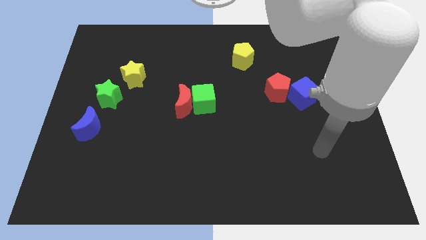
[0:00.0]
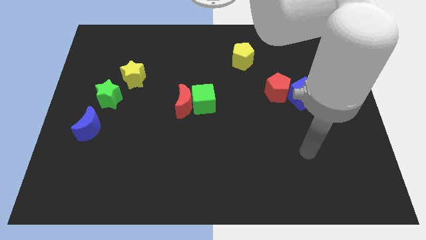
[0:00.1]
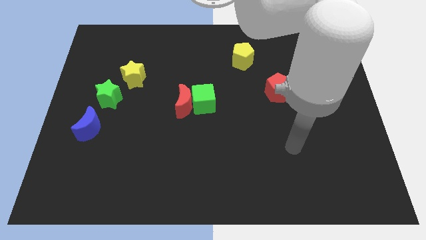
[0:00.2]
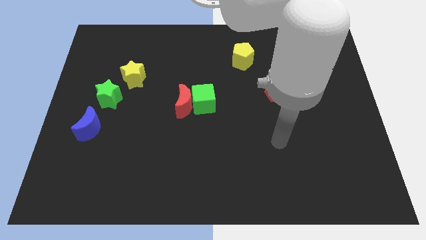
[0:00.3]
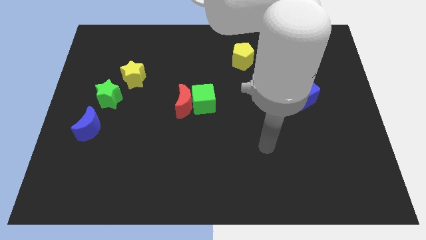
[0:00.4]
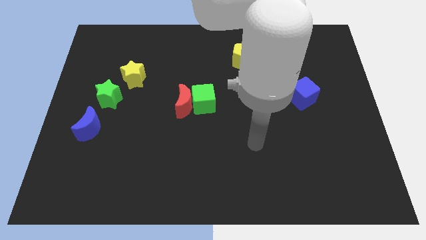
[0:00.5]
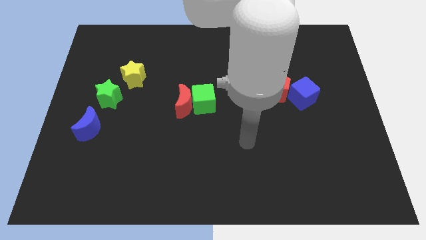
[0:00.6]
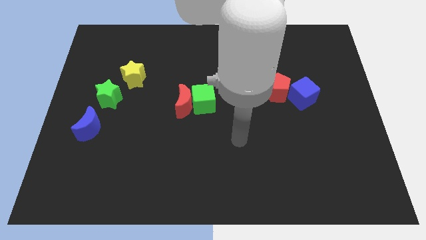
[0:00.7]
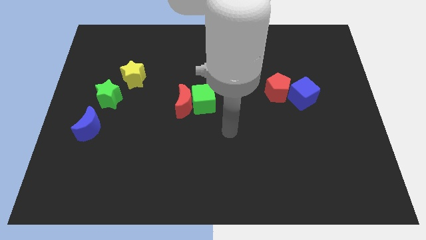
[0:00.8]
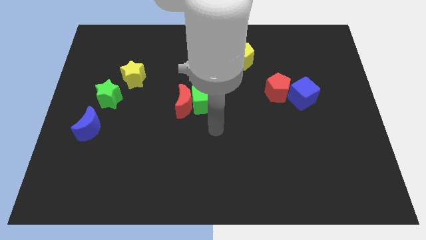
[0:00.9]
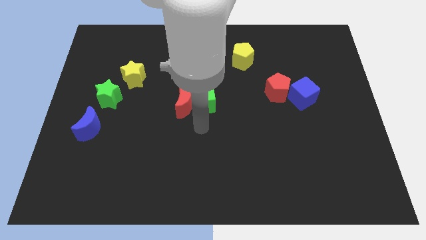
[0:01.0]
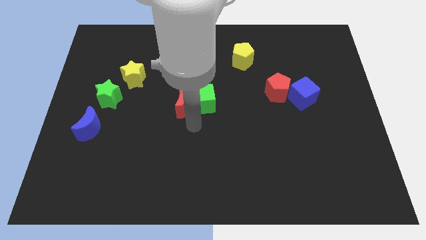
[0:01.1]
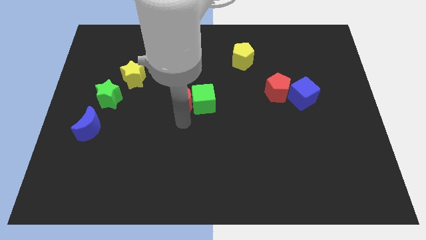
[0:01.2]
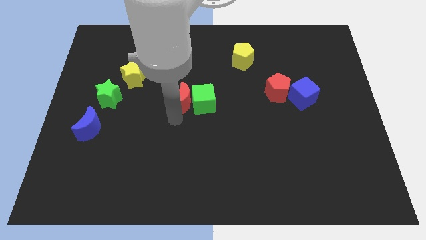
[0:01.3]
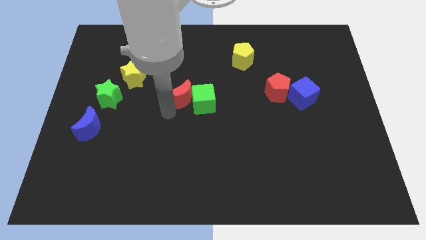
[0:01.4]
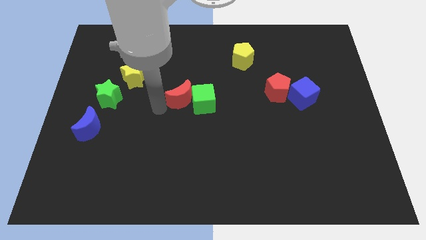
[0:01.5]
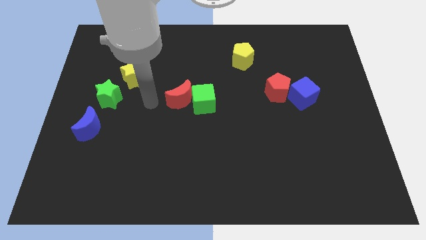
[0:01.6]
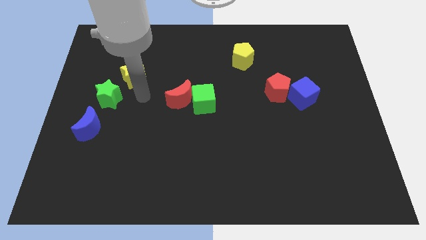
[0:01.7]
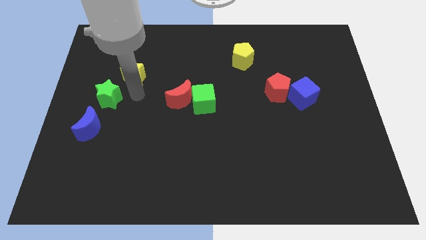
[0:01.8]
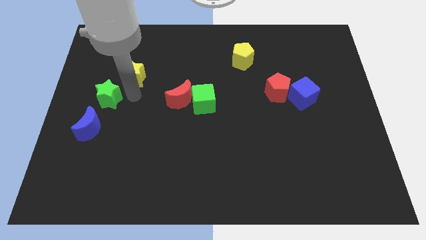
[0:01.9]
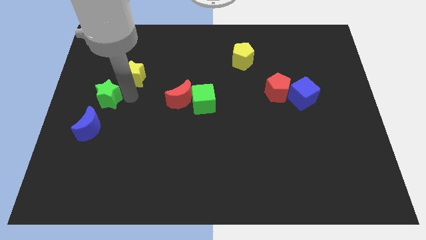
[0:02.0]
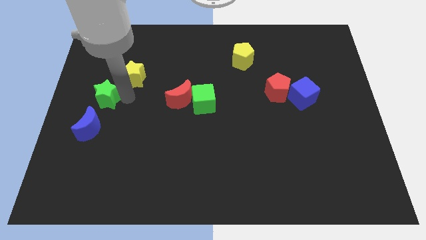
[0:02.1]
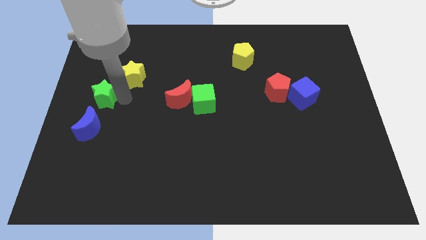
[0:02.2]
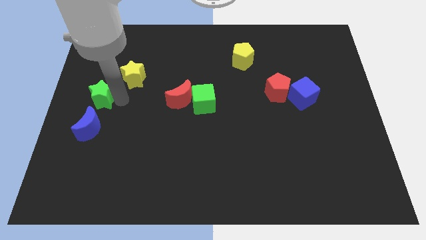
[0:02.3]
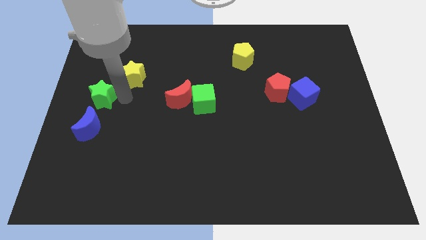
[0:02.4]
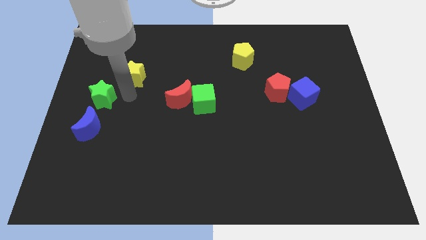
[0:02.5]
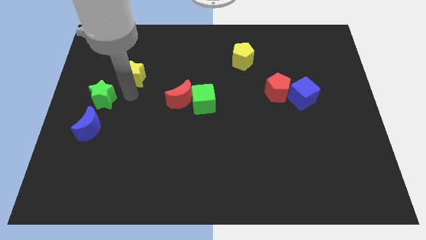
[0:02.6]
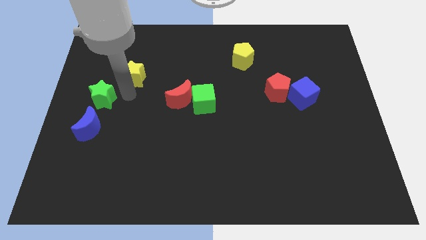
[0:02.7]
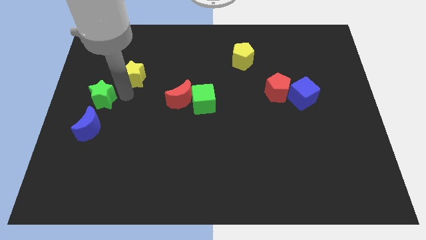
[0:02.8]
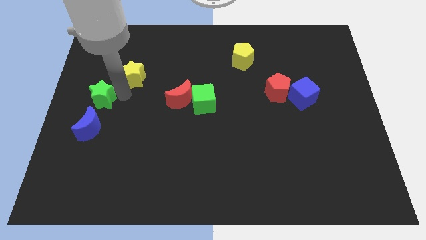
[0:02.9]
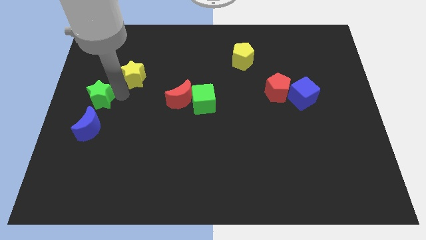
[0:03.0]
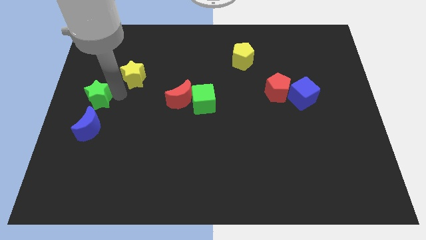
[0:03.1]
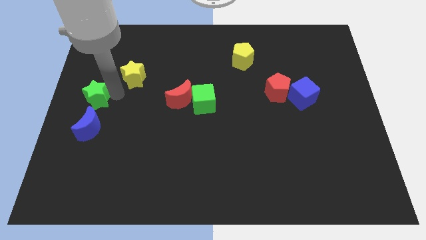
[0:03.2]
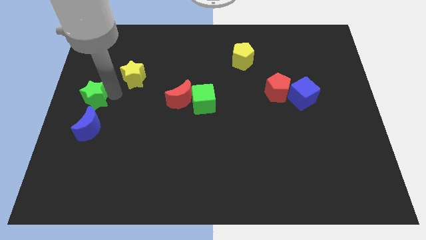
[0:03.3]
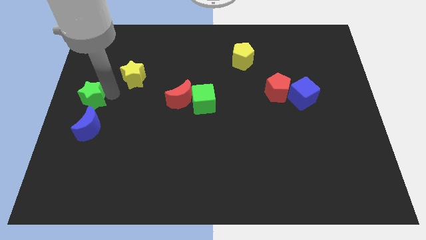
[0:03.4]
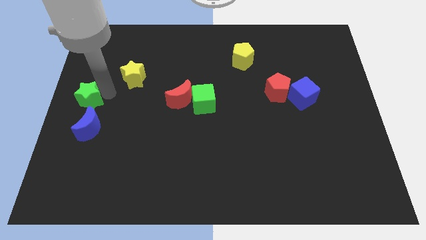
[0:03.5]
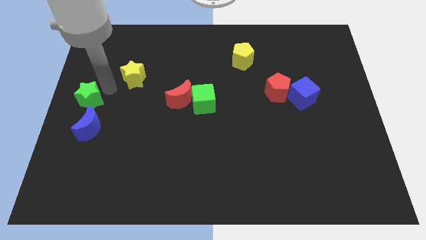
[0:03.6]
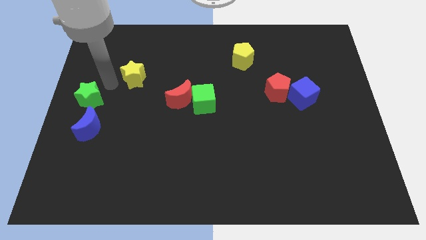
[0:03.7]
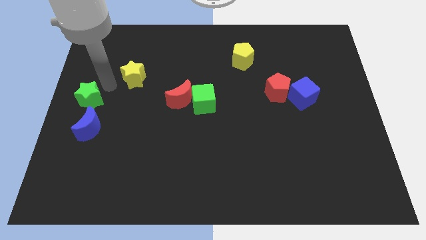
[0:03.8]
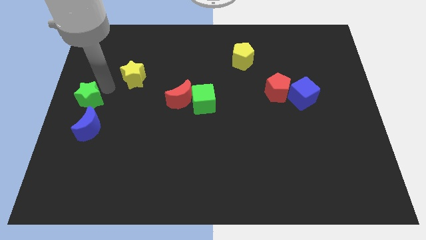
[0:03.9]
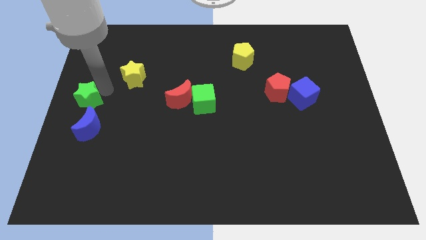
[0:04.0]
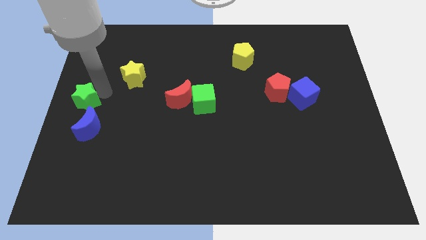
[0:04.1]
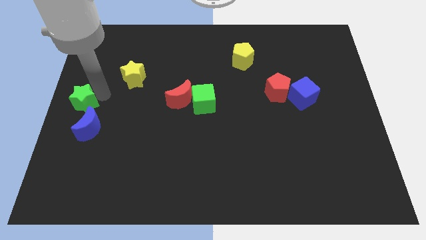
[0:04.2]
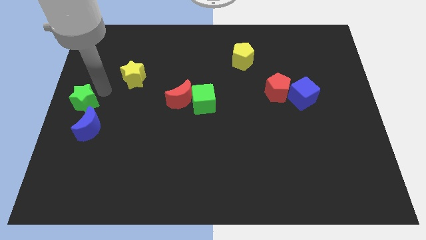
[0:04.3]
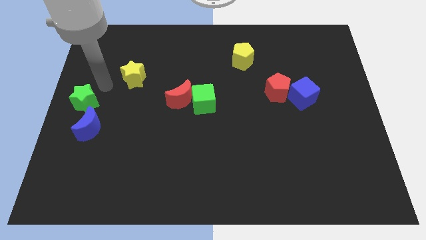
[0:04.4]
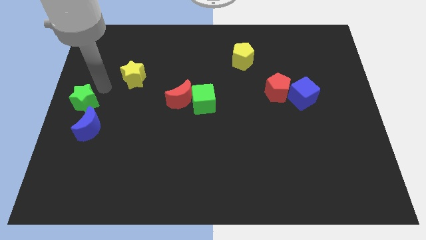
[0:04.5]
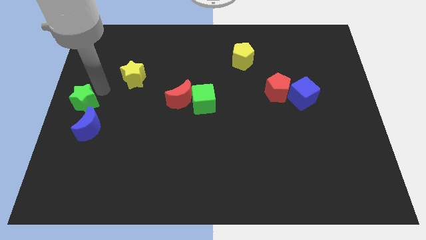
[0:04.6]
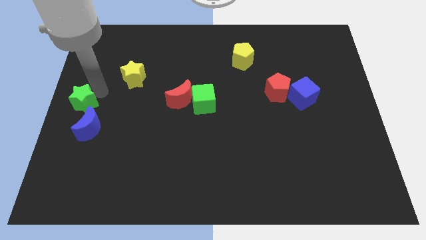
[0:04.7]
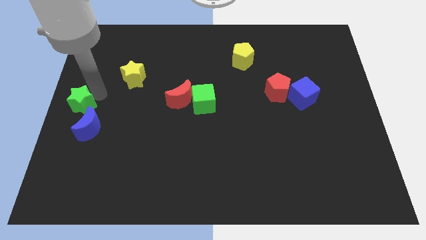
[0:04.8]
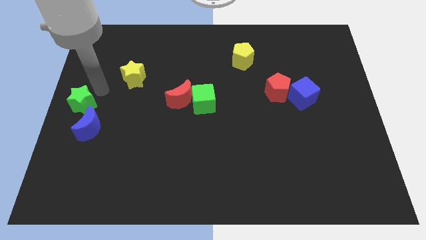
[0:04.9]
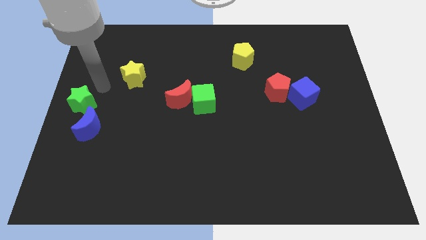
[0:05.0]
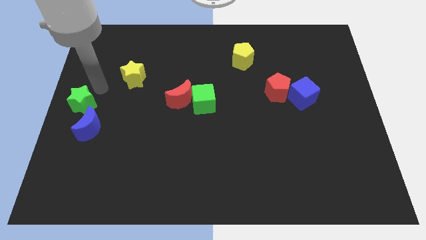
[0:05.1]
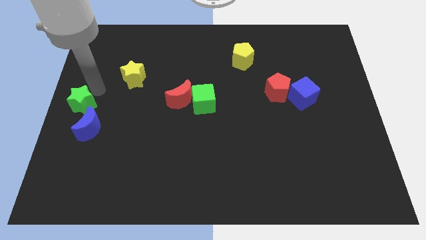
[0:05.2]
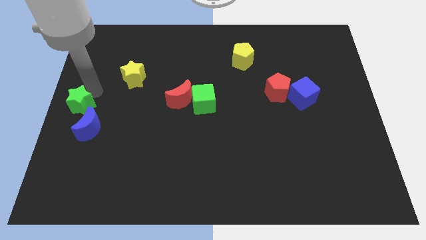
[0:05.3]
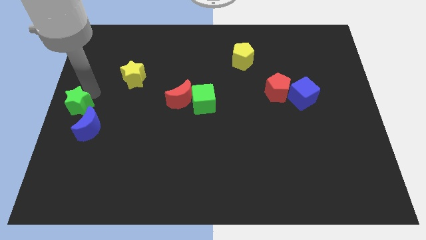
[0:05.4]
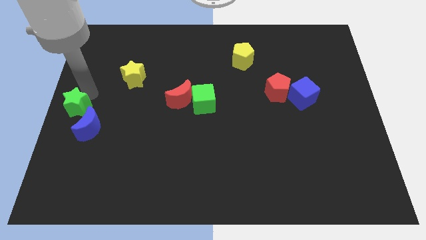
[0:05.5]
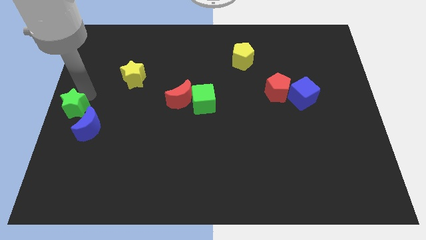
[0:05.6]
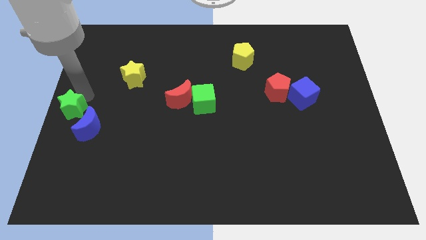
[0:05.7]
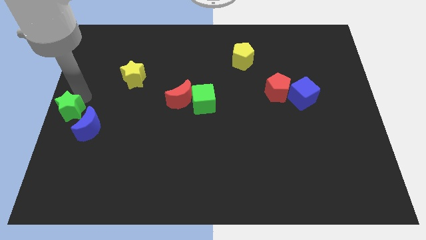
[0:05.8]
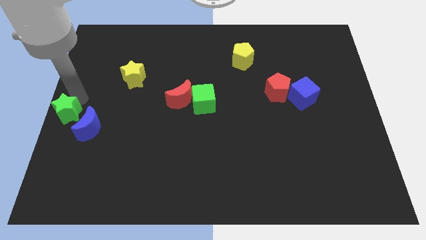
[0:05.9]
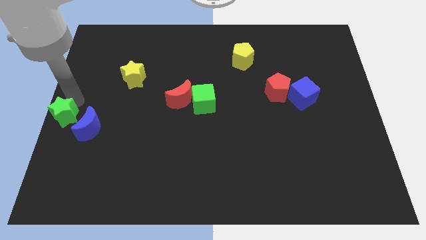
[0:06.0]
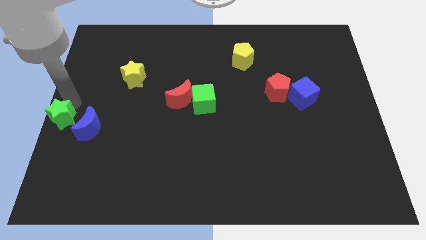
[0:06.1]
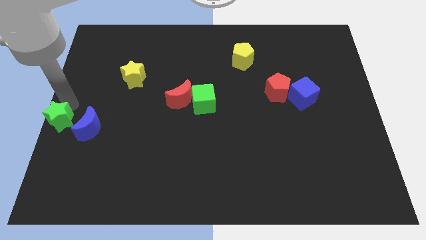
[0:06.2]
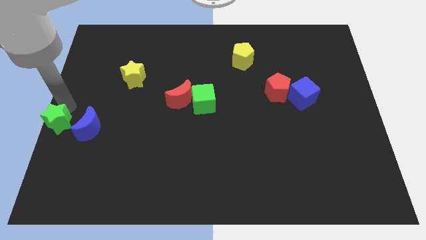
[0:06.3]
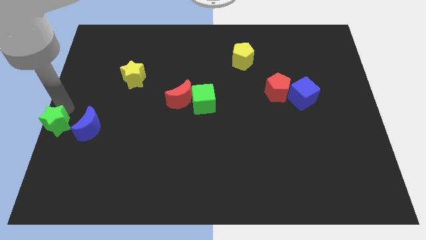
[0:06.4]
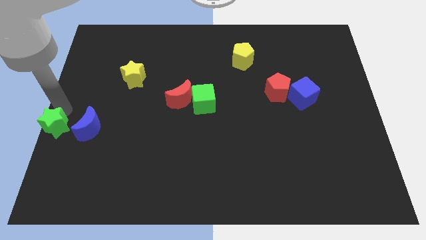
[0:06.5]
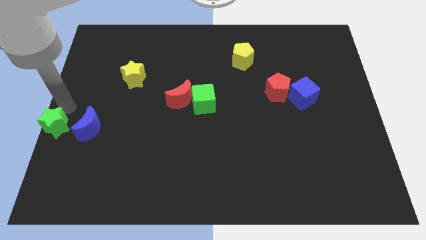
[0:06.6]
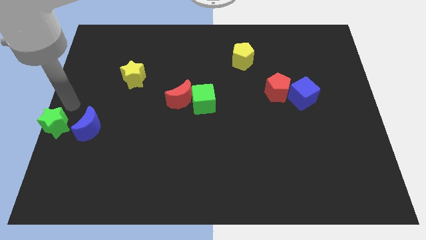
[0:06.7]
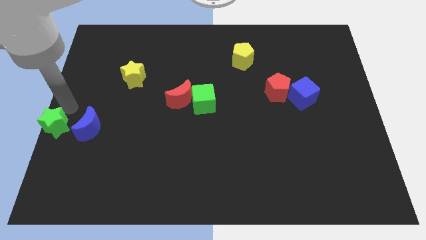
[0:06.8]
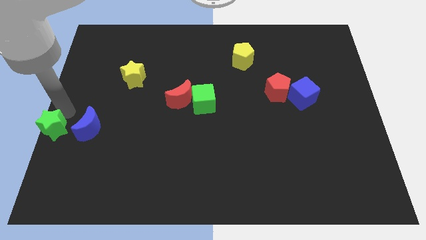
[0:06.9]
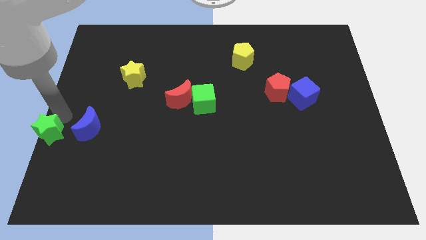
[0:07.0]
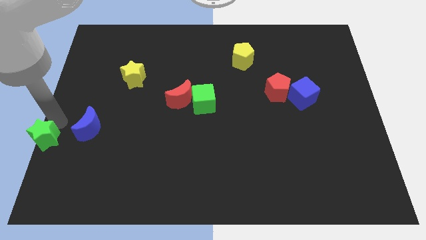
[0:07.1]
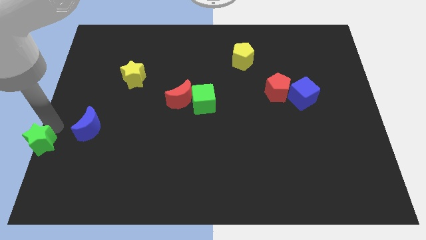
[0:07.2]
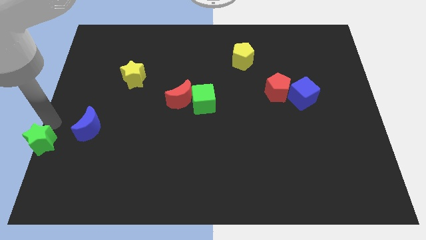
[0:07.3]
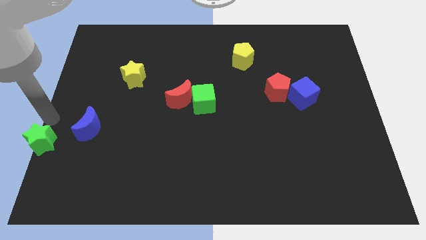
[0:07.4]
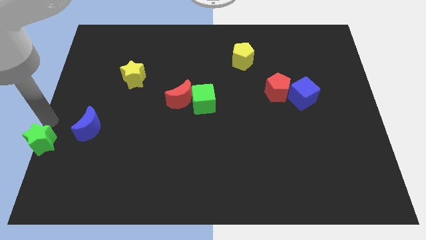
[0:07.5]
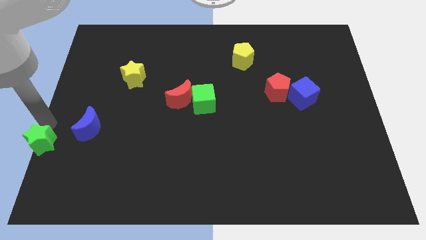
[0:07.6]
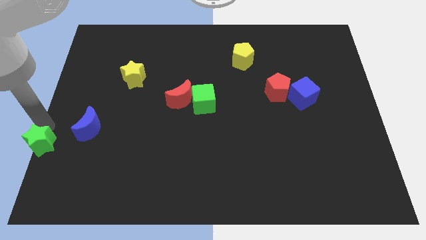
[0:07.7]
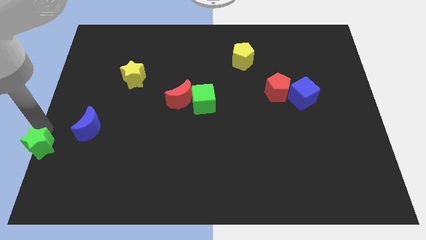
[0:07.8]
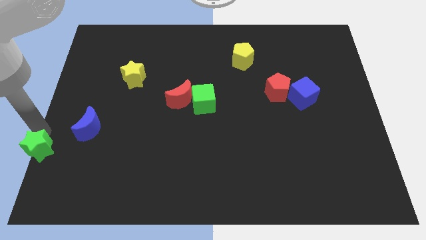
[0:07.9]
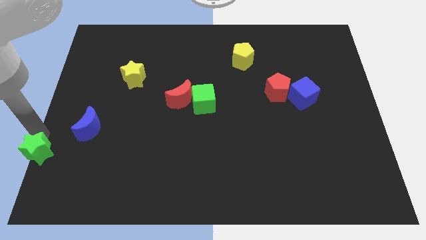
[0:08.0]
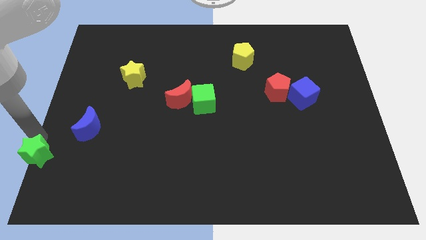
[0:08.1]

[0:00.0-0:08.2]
slide the green star to the bottom left of the board
